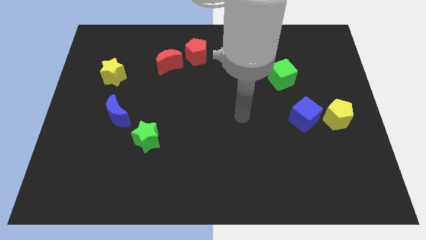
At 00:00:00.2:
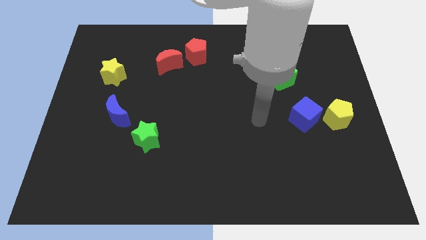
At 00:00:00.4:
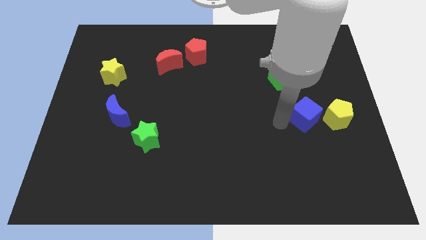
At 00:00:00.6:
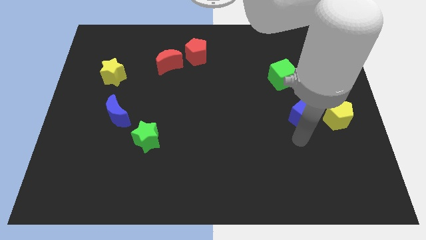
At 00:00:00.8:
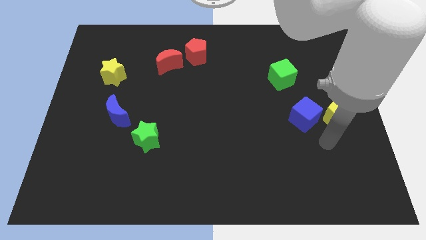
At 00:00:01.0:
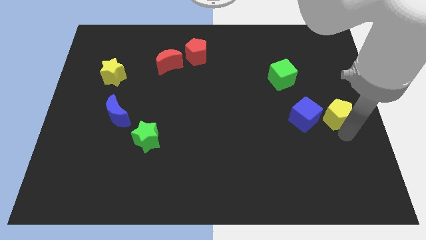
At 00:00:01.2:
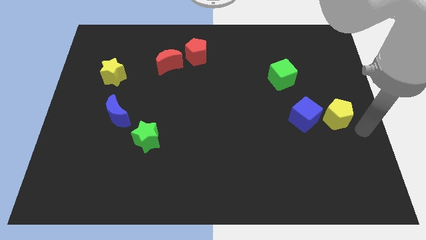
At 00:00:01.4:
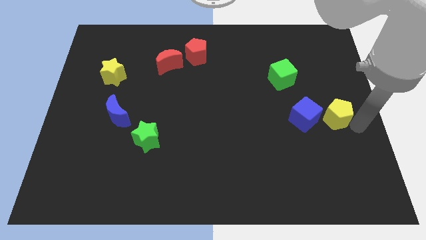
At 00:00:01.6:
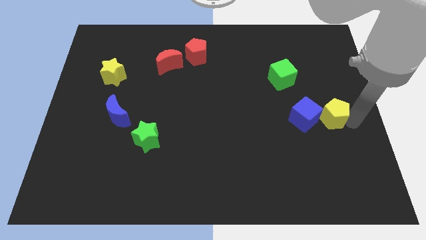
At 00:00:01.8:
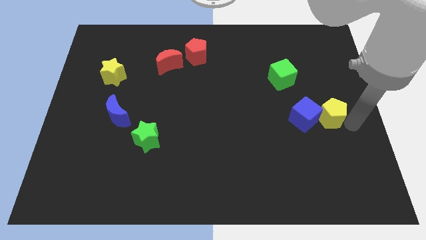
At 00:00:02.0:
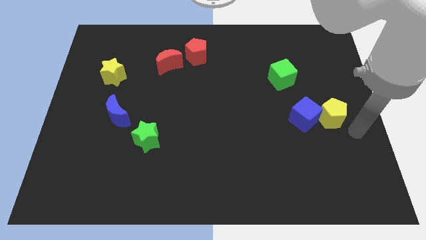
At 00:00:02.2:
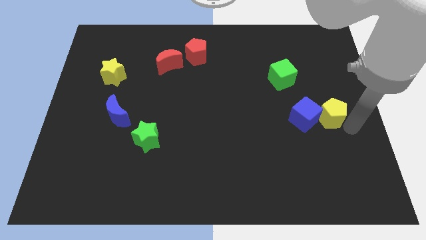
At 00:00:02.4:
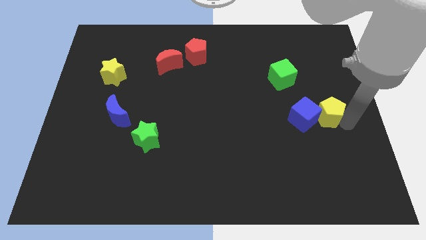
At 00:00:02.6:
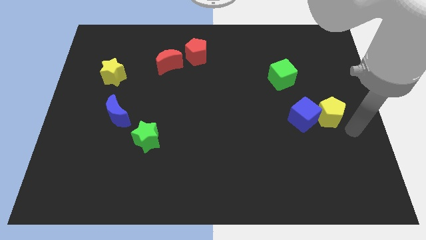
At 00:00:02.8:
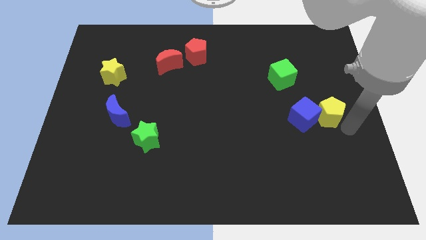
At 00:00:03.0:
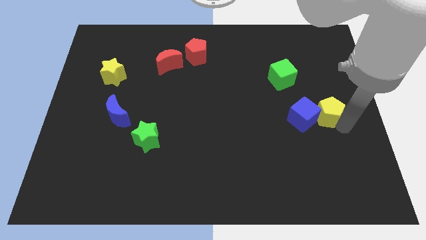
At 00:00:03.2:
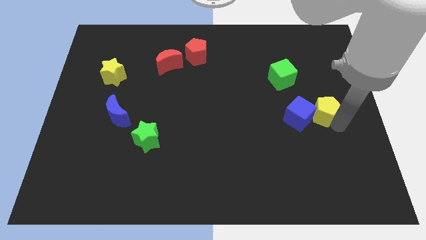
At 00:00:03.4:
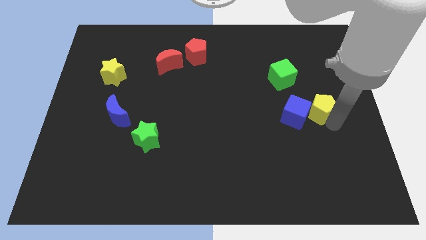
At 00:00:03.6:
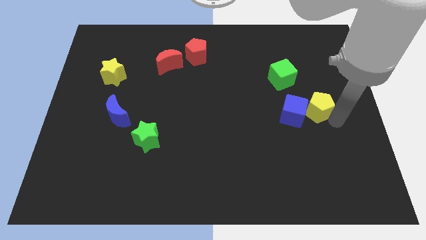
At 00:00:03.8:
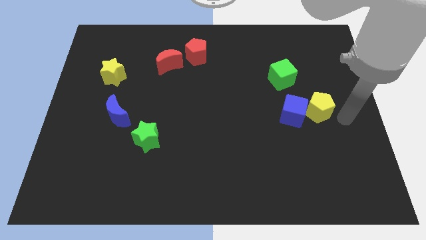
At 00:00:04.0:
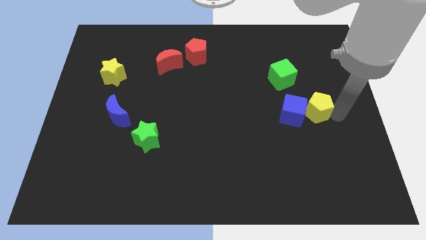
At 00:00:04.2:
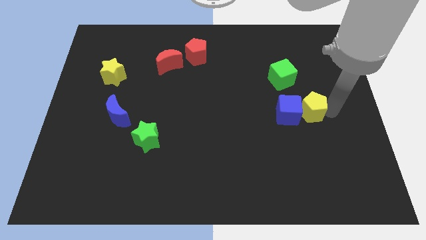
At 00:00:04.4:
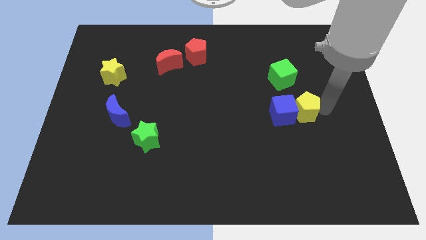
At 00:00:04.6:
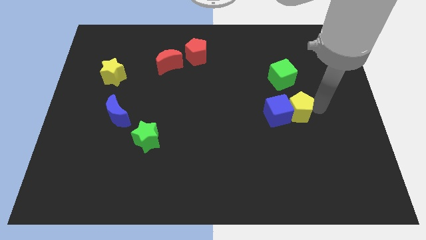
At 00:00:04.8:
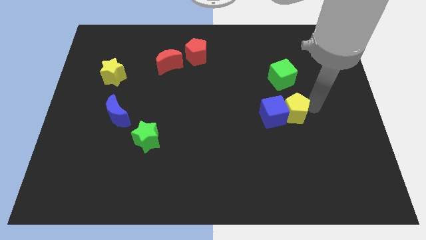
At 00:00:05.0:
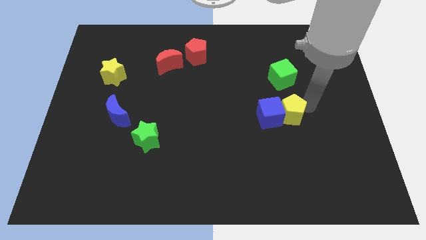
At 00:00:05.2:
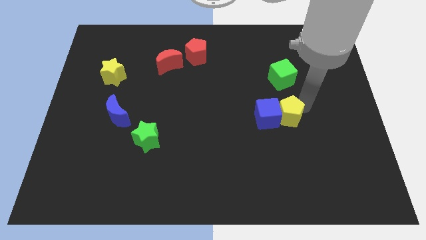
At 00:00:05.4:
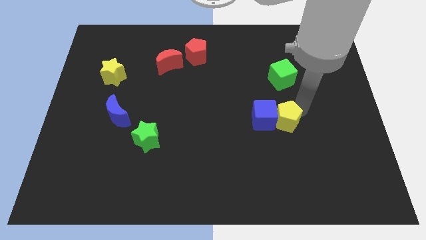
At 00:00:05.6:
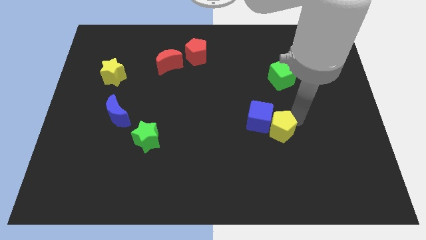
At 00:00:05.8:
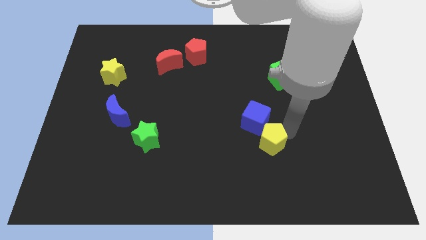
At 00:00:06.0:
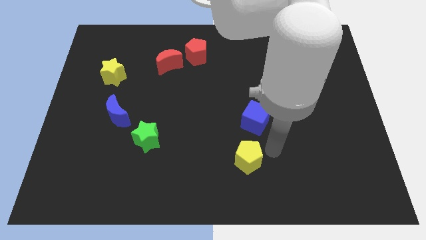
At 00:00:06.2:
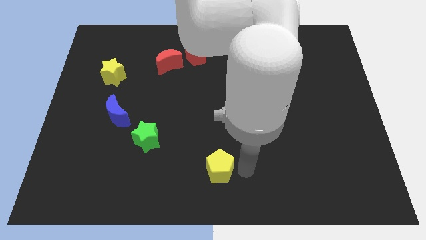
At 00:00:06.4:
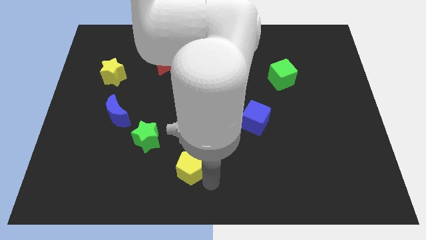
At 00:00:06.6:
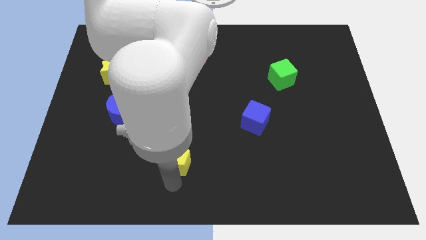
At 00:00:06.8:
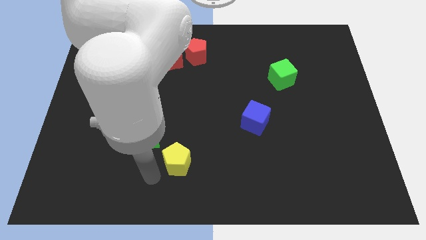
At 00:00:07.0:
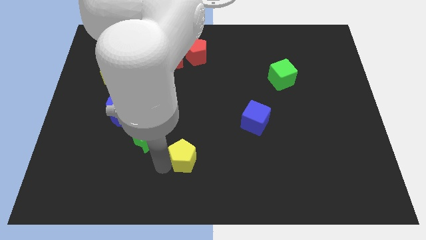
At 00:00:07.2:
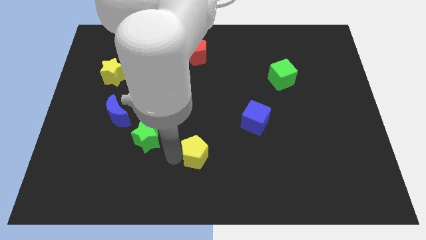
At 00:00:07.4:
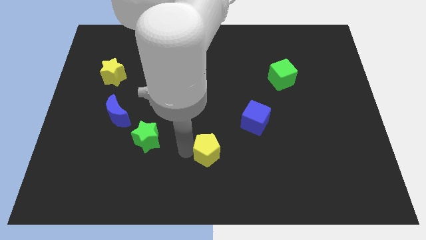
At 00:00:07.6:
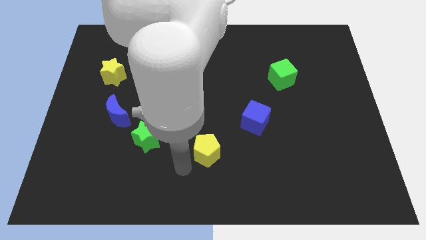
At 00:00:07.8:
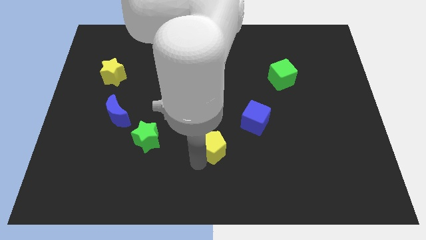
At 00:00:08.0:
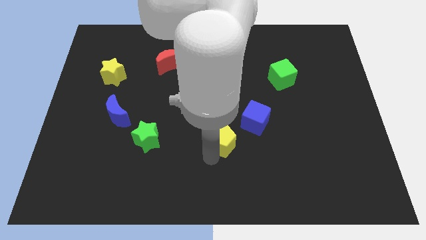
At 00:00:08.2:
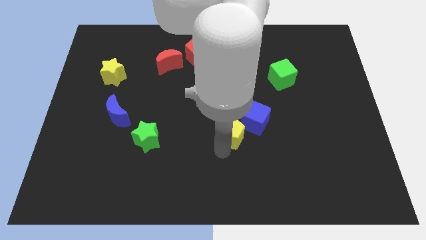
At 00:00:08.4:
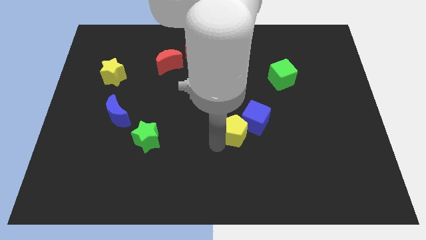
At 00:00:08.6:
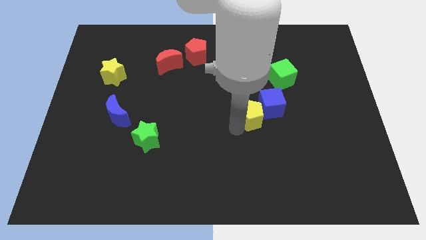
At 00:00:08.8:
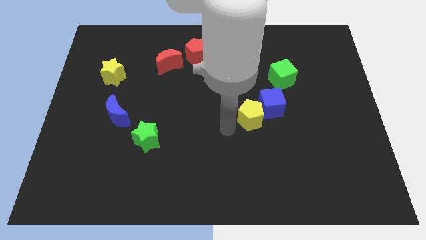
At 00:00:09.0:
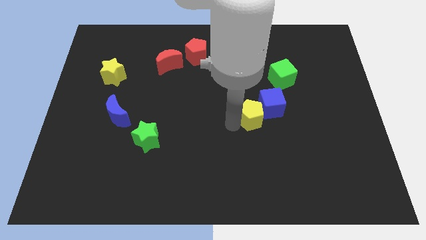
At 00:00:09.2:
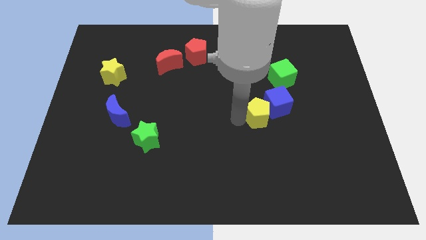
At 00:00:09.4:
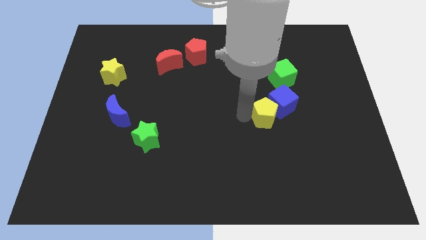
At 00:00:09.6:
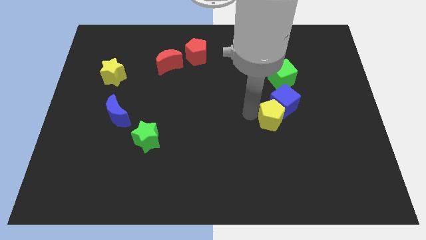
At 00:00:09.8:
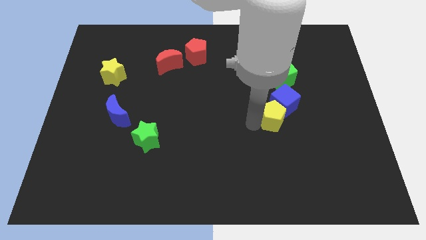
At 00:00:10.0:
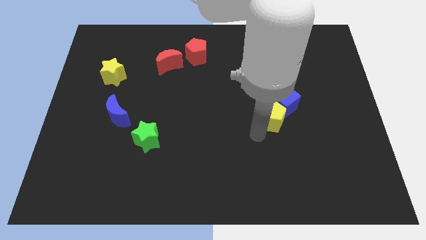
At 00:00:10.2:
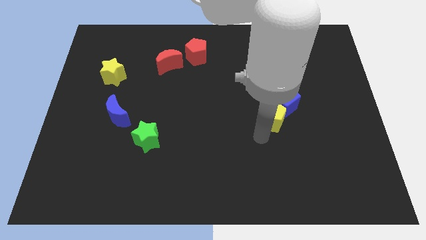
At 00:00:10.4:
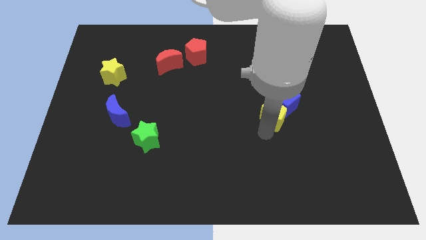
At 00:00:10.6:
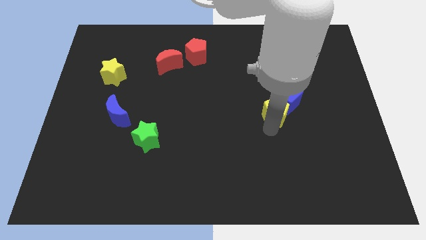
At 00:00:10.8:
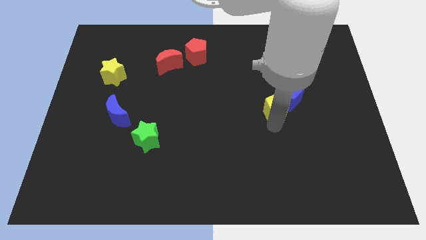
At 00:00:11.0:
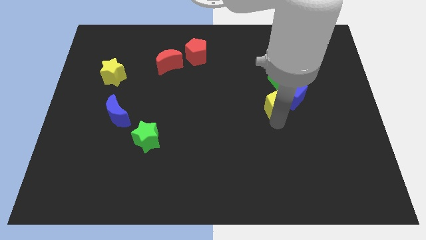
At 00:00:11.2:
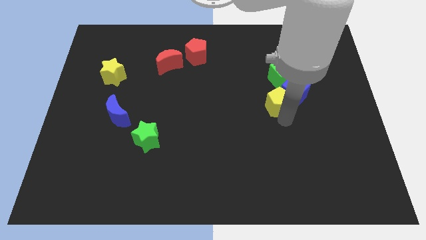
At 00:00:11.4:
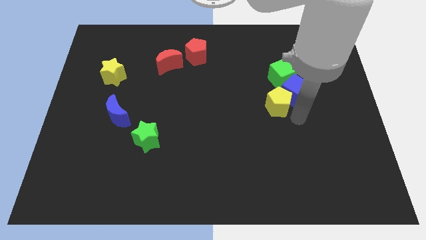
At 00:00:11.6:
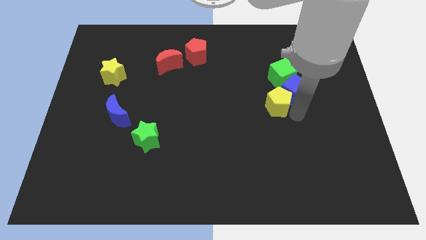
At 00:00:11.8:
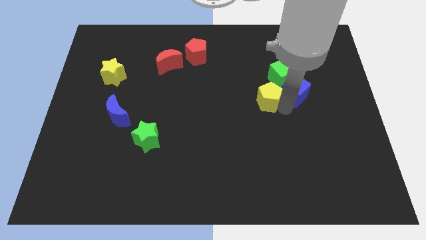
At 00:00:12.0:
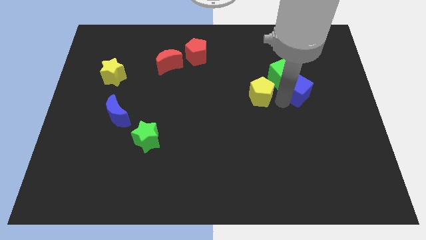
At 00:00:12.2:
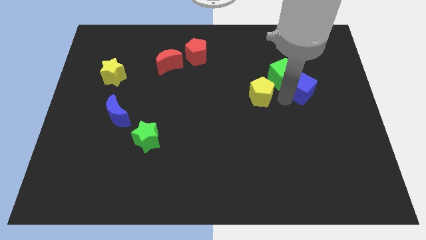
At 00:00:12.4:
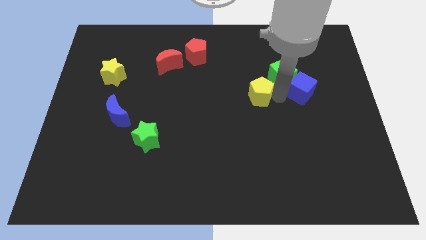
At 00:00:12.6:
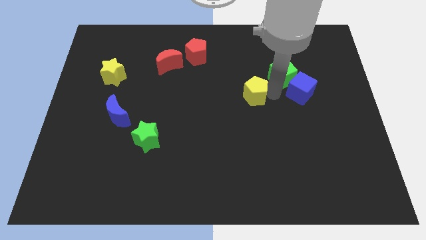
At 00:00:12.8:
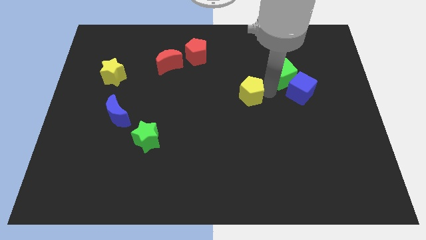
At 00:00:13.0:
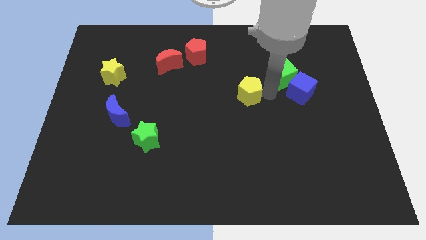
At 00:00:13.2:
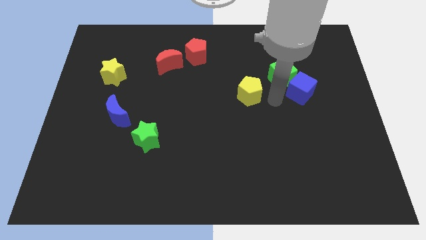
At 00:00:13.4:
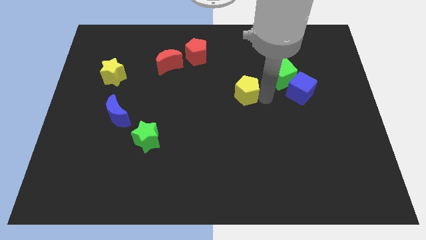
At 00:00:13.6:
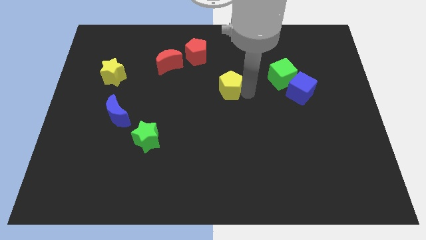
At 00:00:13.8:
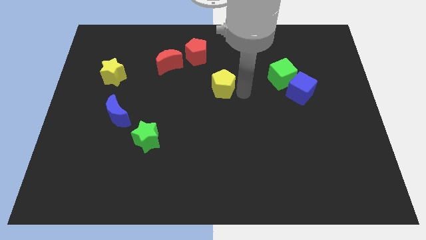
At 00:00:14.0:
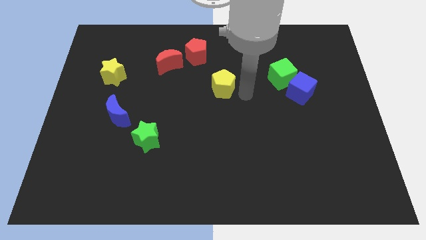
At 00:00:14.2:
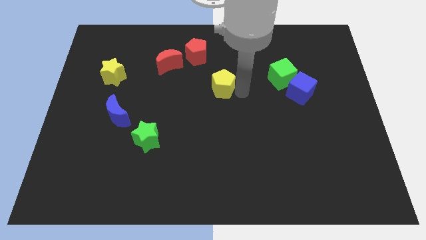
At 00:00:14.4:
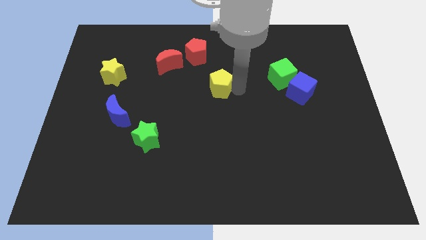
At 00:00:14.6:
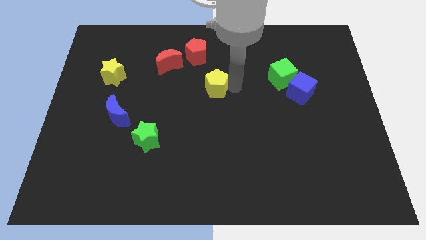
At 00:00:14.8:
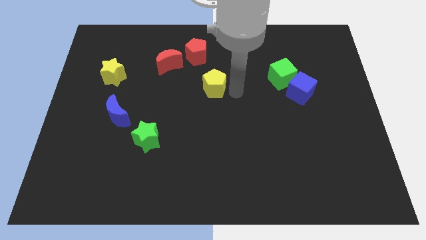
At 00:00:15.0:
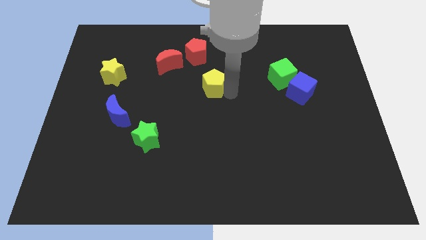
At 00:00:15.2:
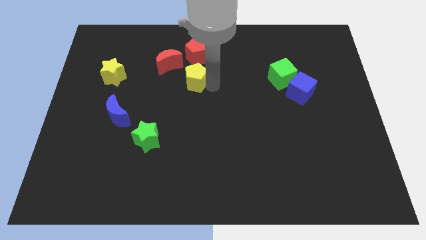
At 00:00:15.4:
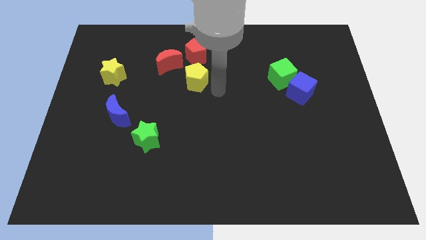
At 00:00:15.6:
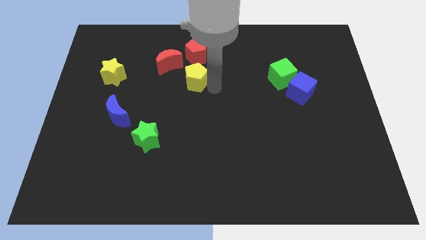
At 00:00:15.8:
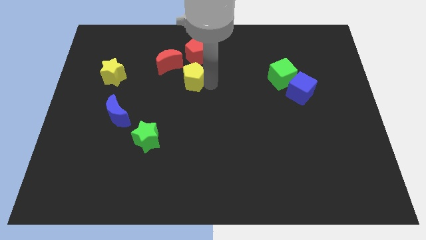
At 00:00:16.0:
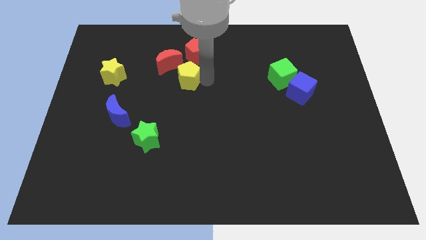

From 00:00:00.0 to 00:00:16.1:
move the yellow pentagon to the bottom left of the red pentagon
